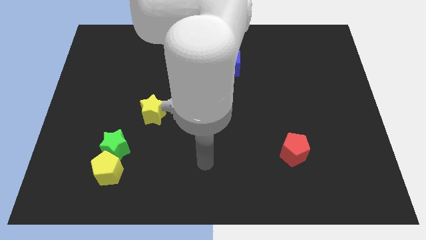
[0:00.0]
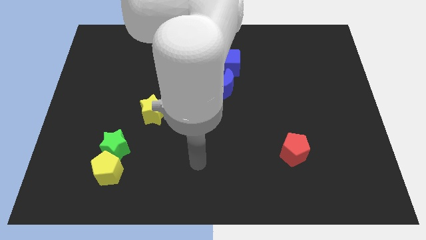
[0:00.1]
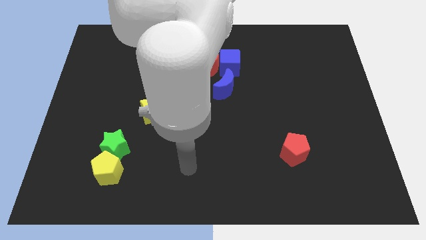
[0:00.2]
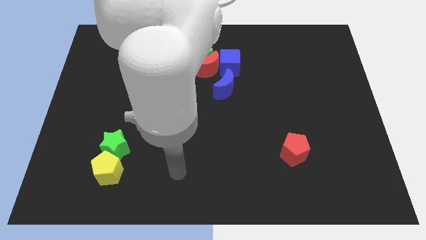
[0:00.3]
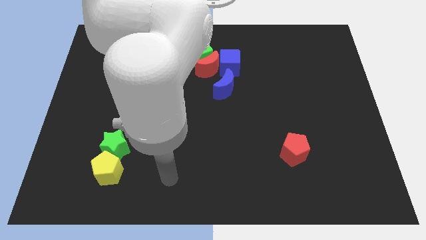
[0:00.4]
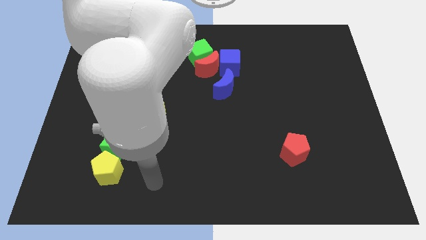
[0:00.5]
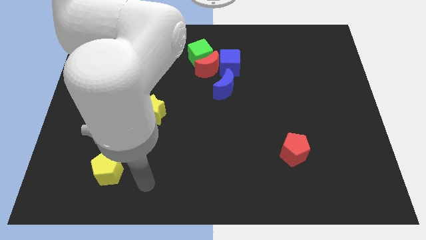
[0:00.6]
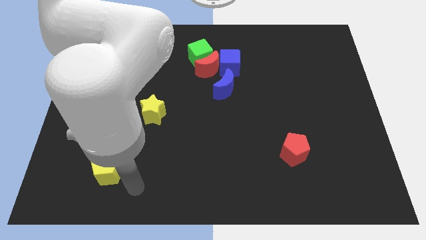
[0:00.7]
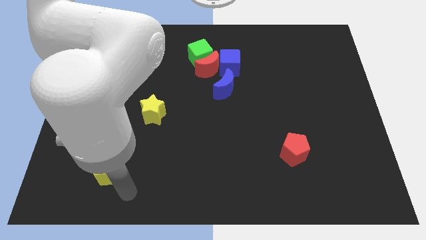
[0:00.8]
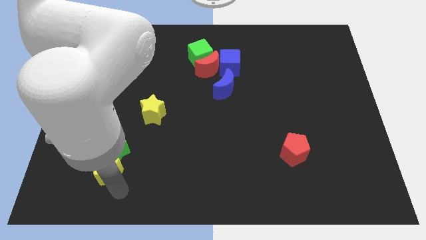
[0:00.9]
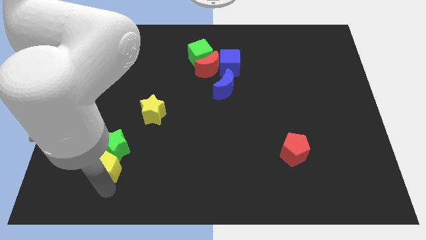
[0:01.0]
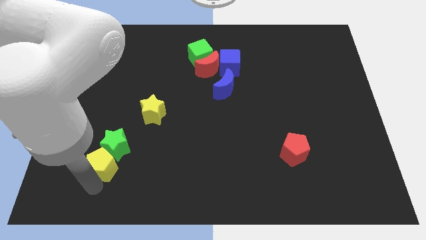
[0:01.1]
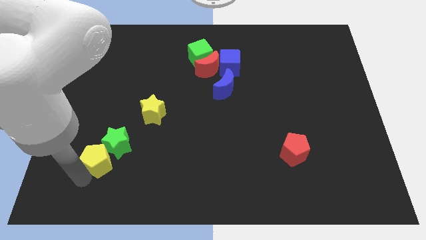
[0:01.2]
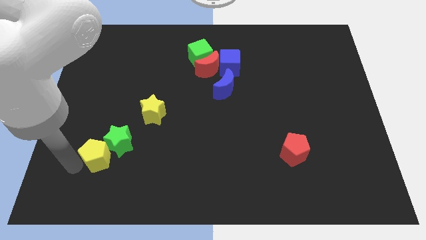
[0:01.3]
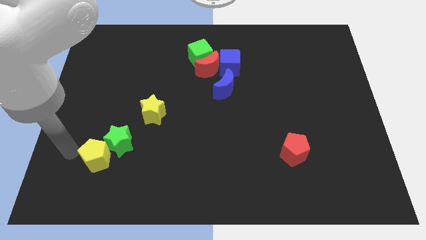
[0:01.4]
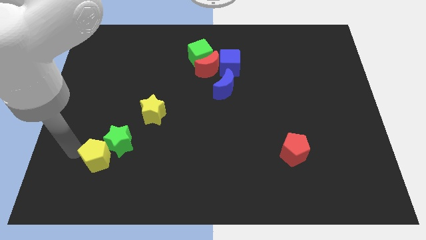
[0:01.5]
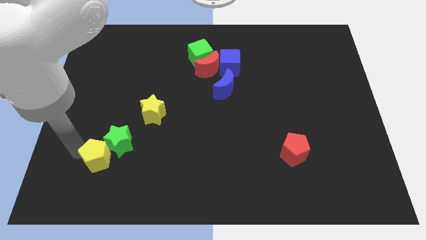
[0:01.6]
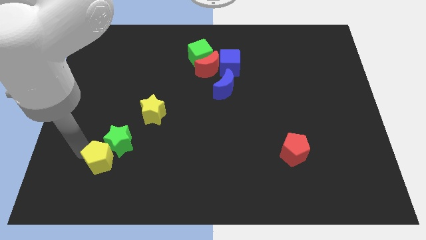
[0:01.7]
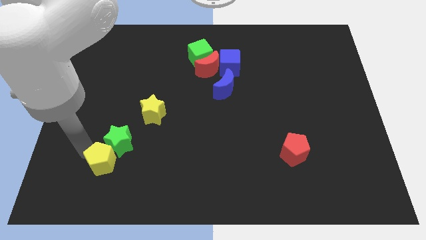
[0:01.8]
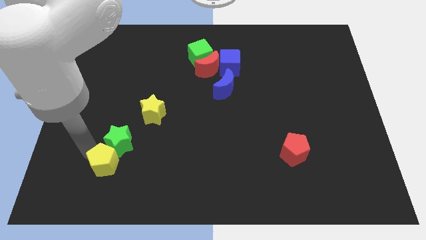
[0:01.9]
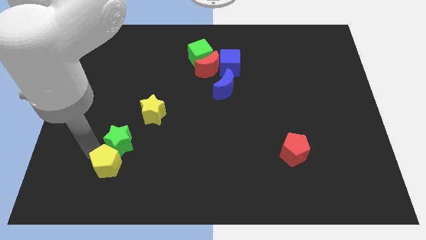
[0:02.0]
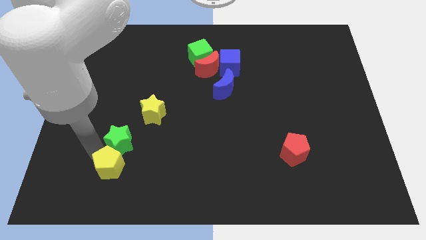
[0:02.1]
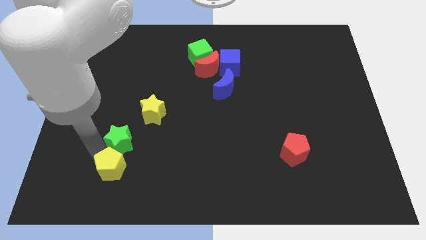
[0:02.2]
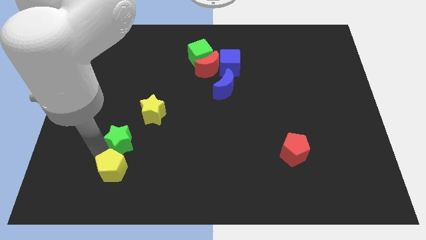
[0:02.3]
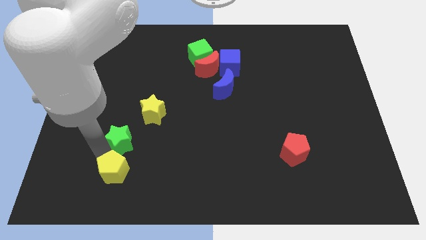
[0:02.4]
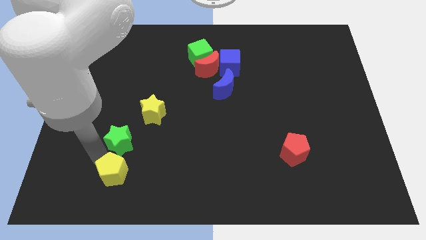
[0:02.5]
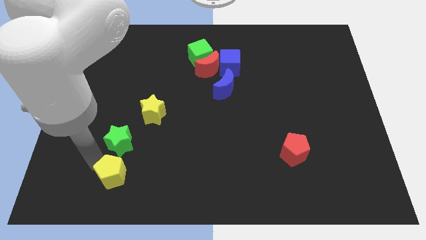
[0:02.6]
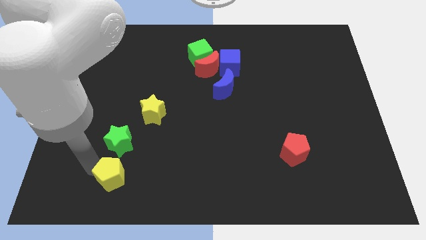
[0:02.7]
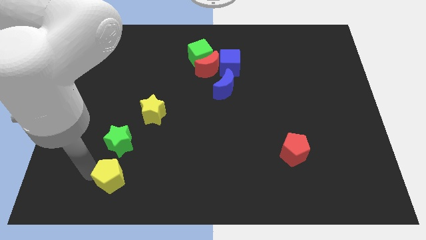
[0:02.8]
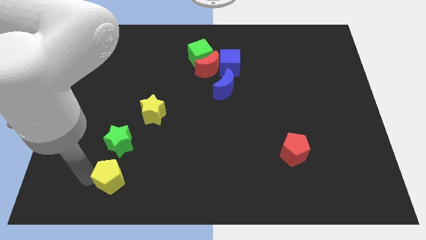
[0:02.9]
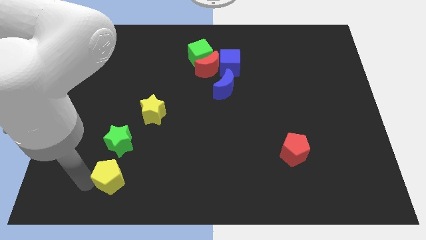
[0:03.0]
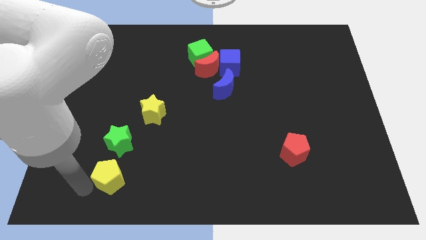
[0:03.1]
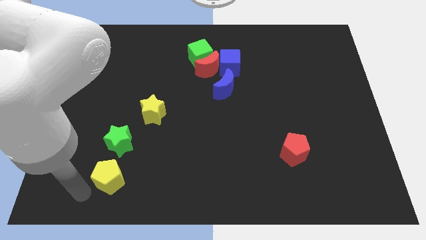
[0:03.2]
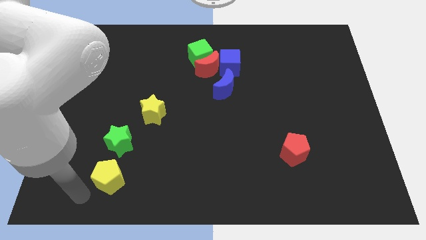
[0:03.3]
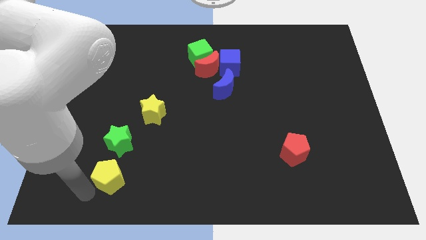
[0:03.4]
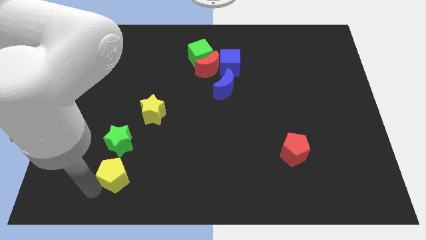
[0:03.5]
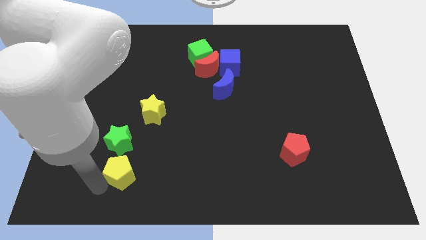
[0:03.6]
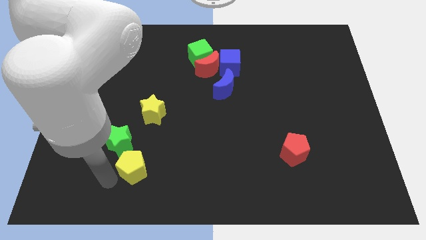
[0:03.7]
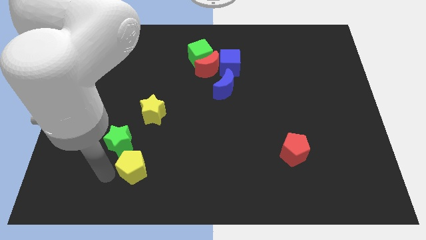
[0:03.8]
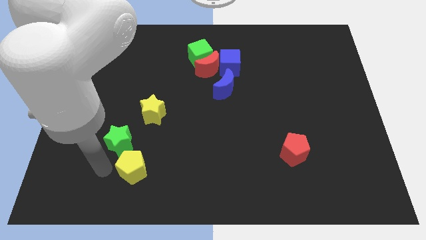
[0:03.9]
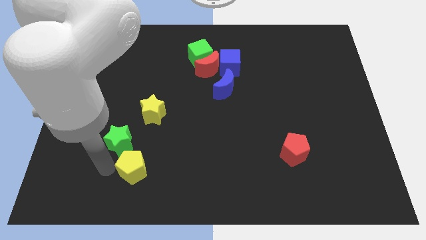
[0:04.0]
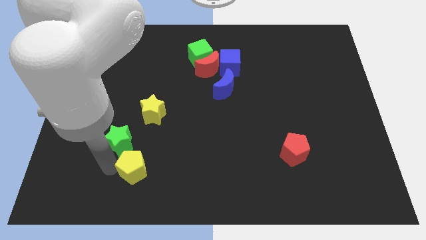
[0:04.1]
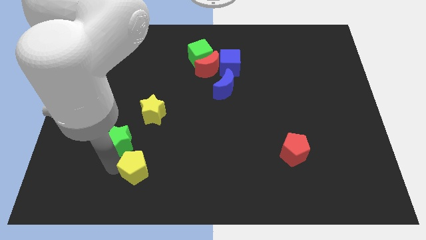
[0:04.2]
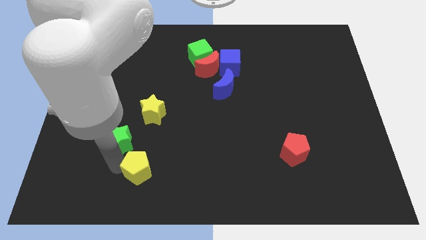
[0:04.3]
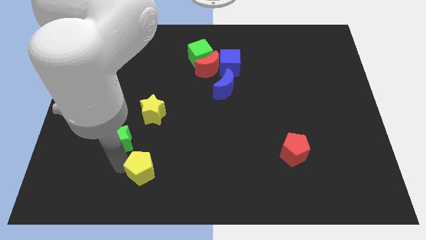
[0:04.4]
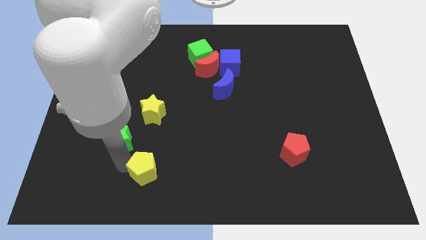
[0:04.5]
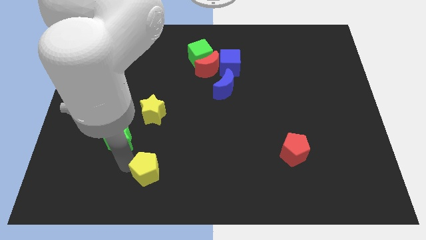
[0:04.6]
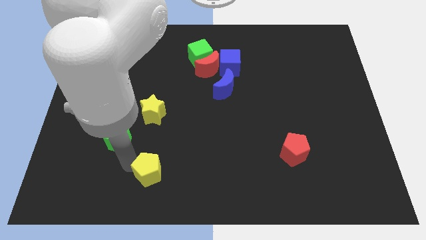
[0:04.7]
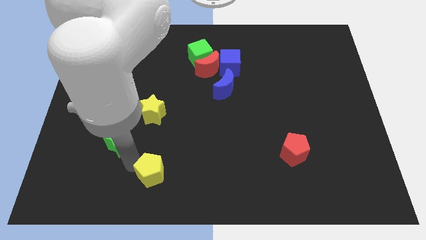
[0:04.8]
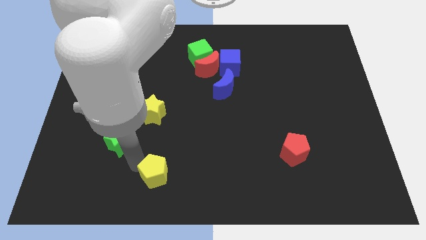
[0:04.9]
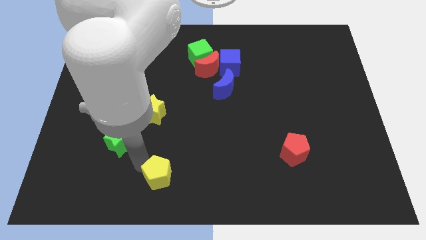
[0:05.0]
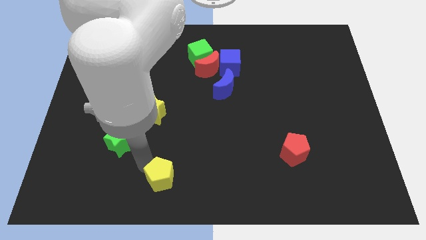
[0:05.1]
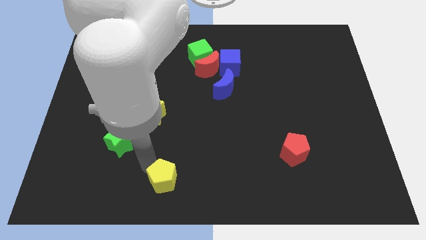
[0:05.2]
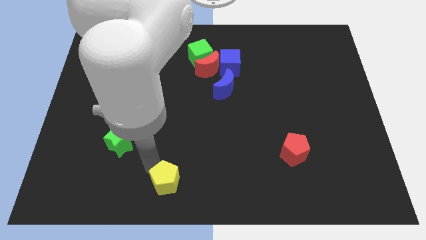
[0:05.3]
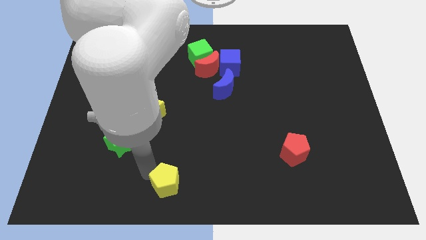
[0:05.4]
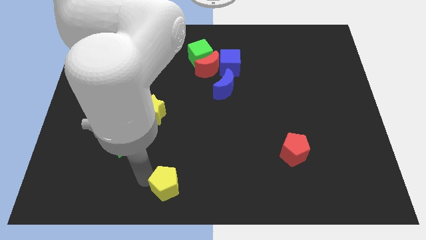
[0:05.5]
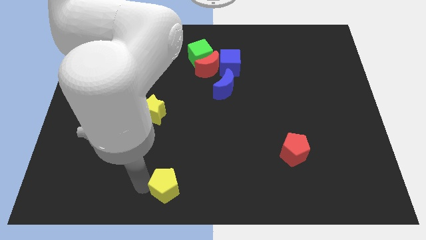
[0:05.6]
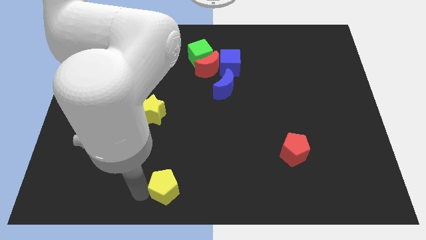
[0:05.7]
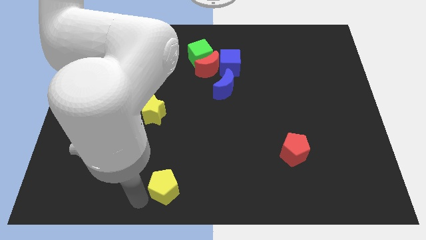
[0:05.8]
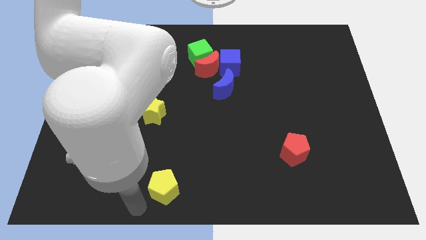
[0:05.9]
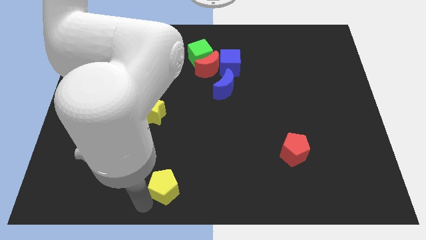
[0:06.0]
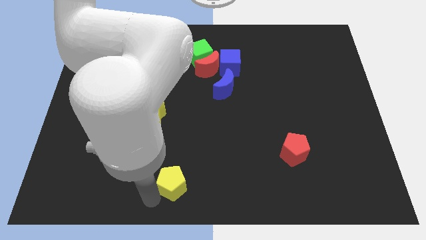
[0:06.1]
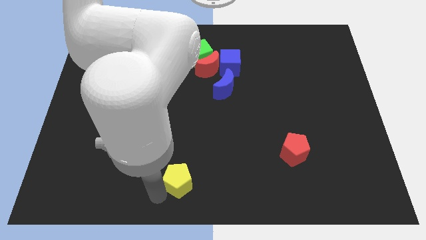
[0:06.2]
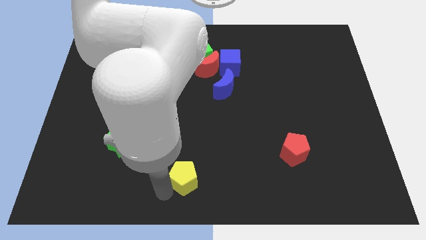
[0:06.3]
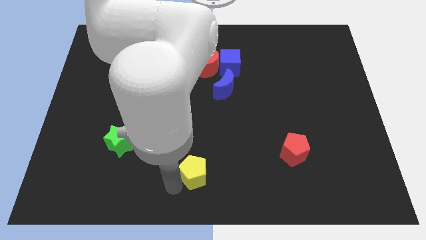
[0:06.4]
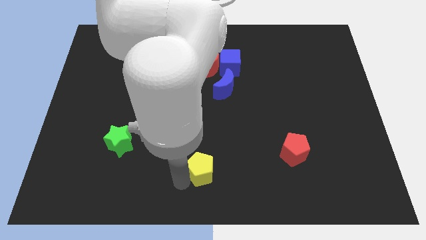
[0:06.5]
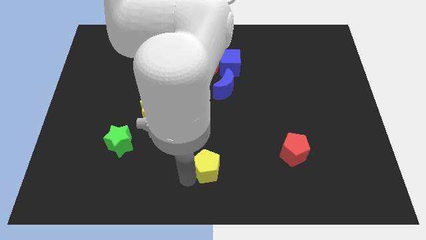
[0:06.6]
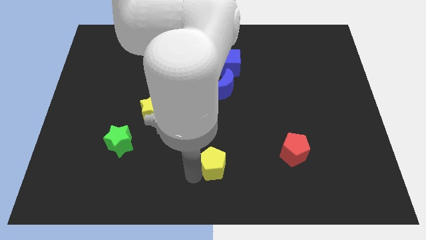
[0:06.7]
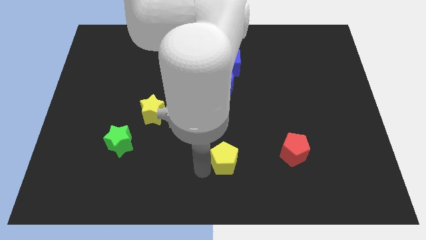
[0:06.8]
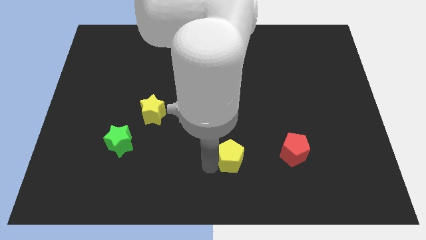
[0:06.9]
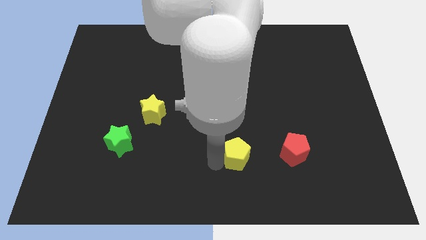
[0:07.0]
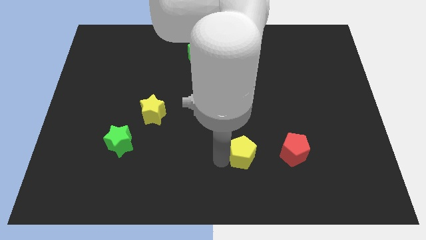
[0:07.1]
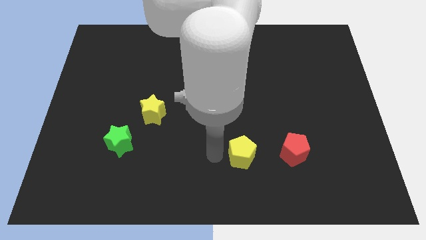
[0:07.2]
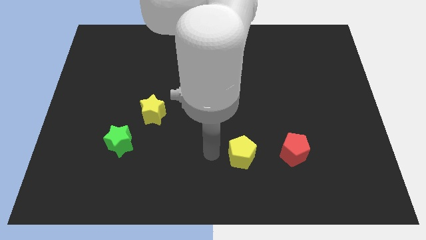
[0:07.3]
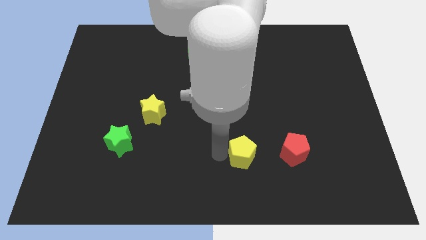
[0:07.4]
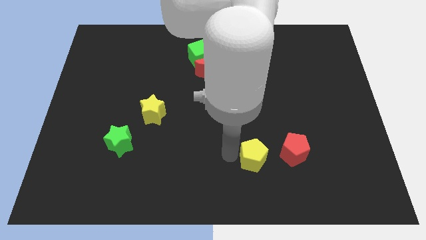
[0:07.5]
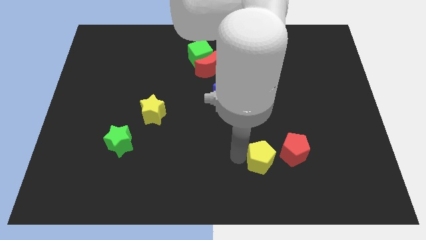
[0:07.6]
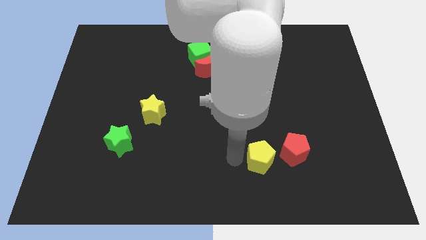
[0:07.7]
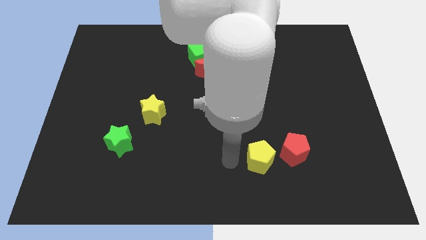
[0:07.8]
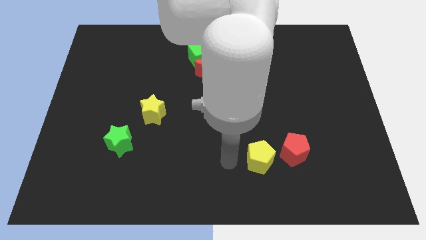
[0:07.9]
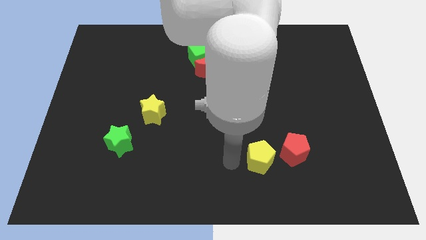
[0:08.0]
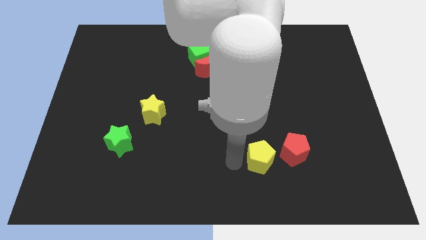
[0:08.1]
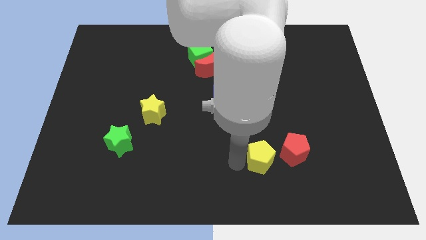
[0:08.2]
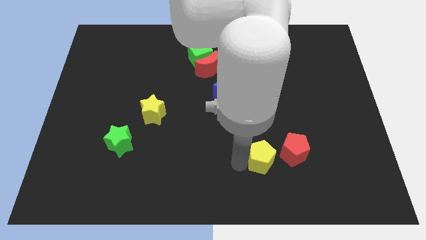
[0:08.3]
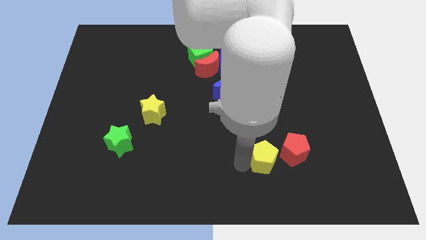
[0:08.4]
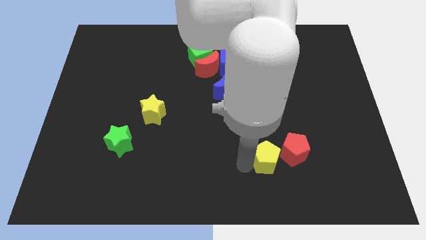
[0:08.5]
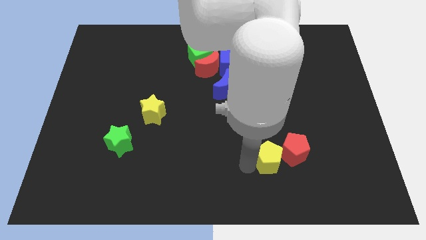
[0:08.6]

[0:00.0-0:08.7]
push the yellow pentagon next to the red pentagon

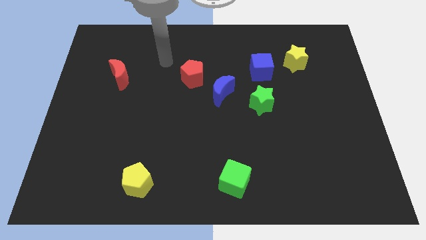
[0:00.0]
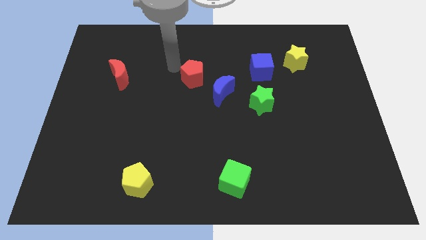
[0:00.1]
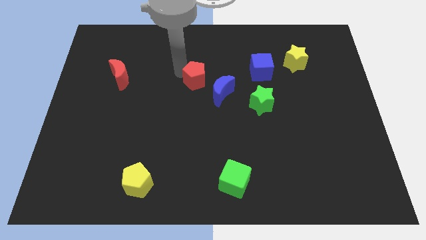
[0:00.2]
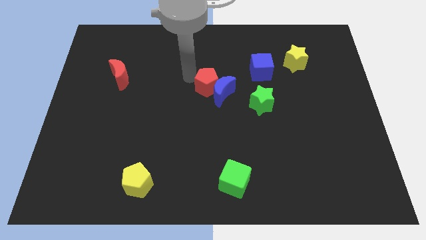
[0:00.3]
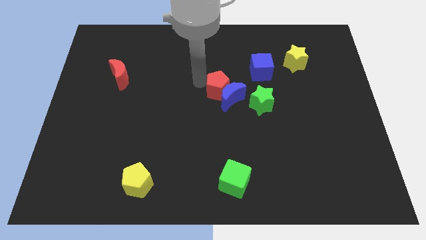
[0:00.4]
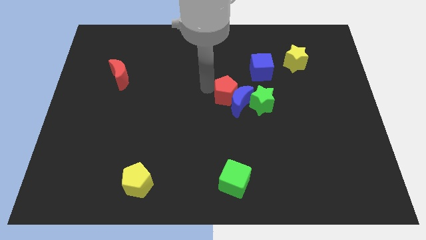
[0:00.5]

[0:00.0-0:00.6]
slide the blue moon close to the green star
